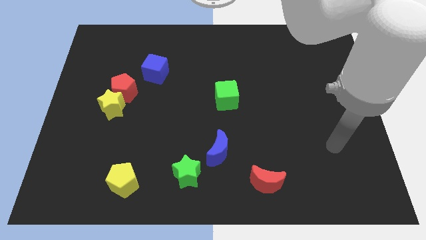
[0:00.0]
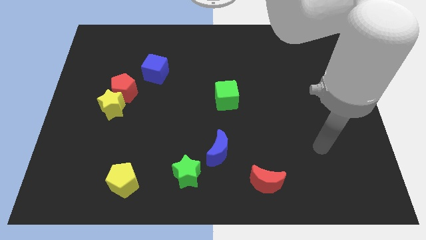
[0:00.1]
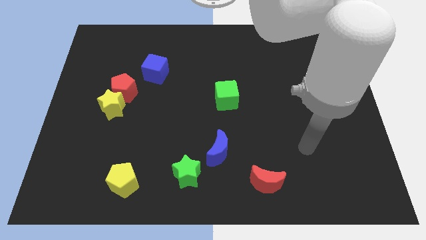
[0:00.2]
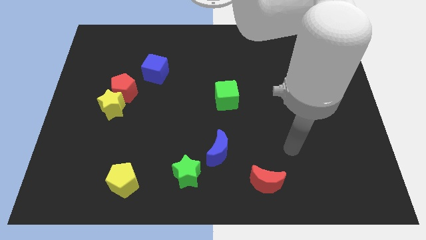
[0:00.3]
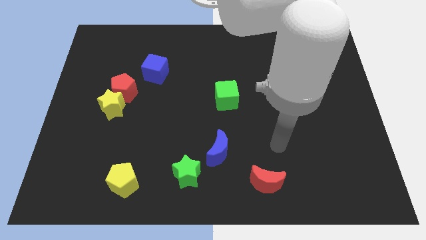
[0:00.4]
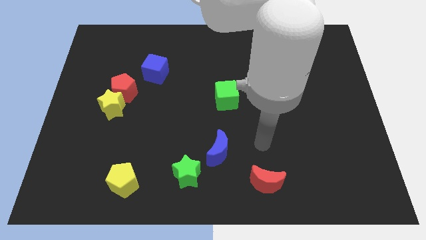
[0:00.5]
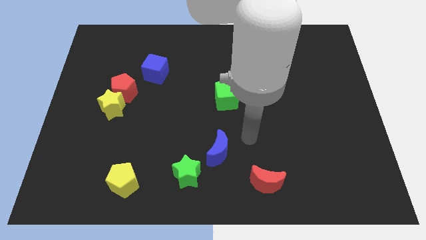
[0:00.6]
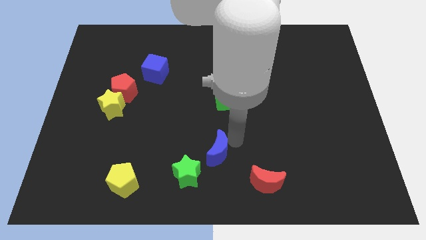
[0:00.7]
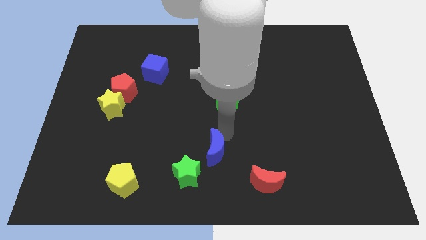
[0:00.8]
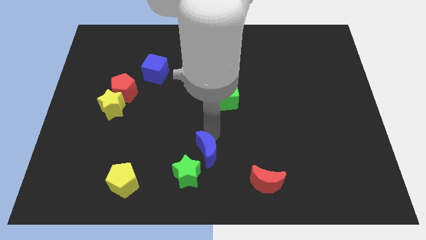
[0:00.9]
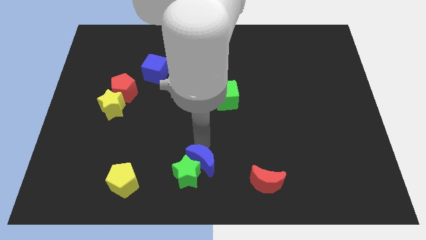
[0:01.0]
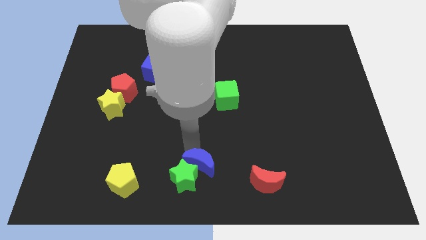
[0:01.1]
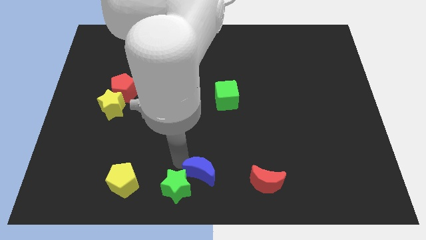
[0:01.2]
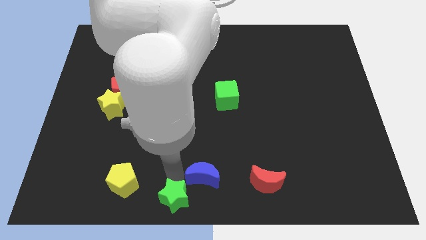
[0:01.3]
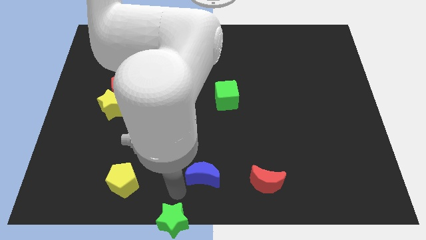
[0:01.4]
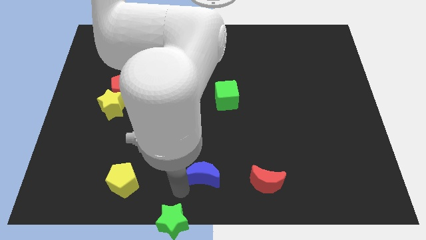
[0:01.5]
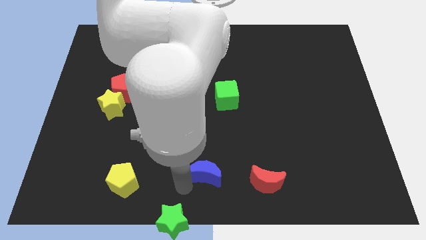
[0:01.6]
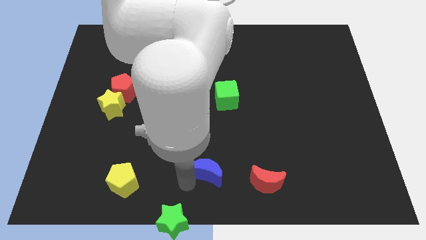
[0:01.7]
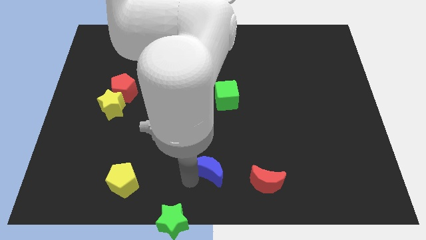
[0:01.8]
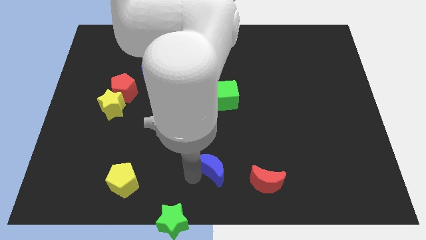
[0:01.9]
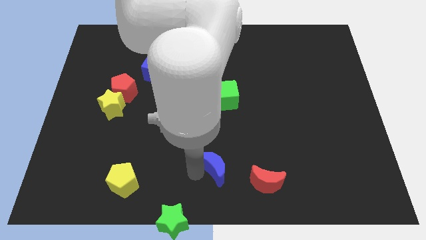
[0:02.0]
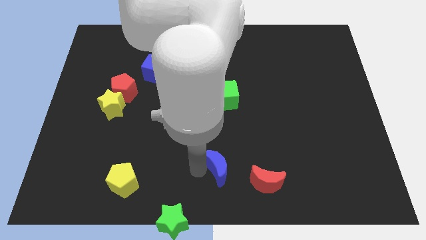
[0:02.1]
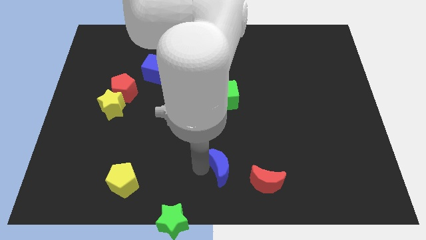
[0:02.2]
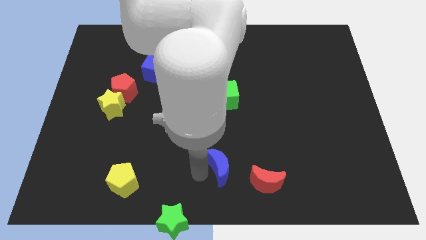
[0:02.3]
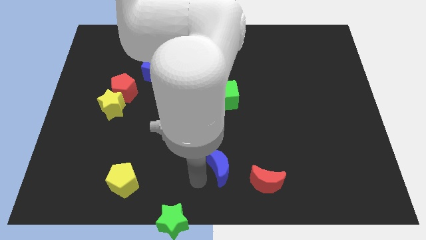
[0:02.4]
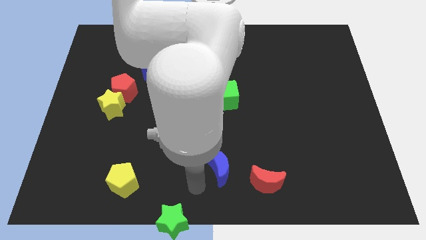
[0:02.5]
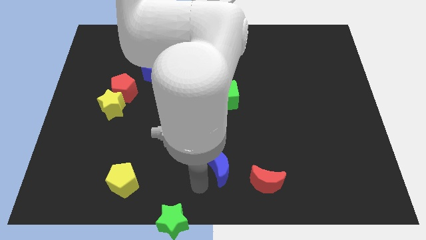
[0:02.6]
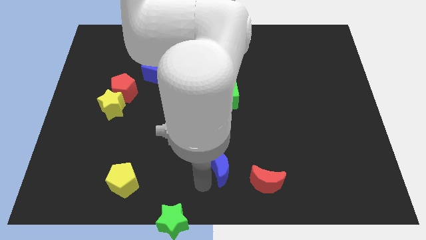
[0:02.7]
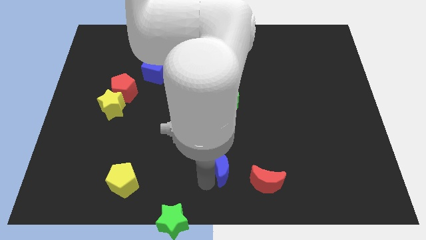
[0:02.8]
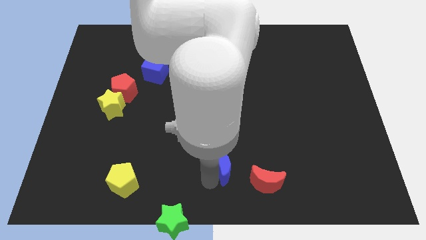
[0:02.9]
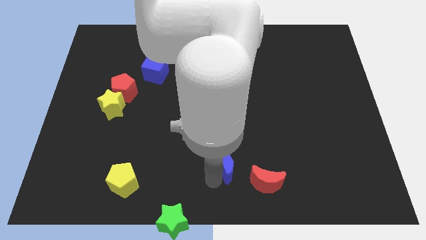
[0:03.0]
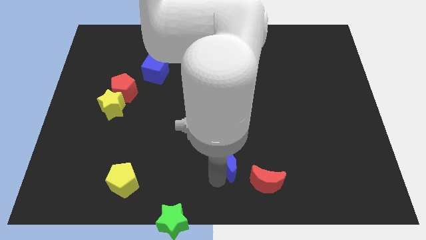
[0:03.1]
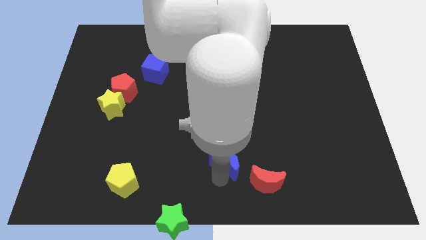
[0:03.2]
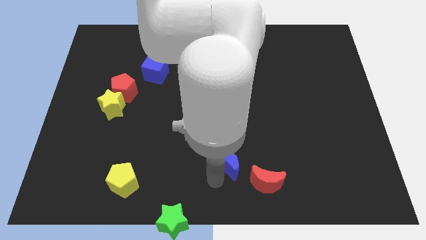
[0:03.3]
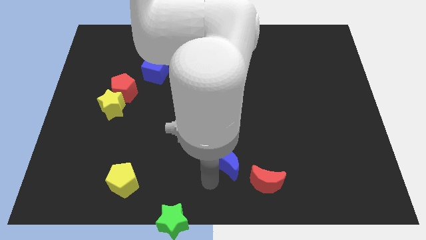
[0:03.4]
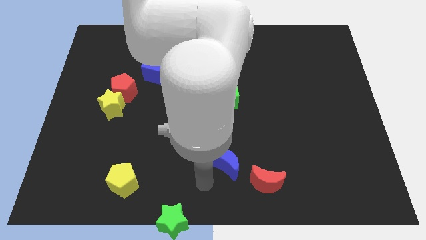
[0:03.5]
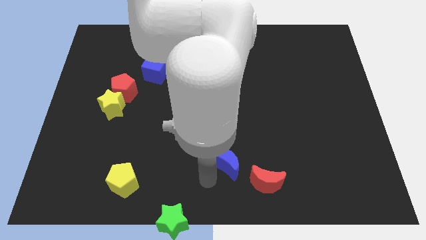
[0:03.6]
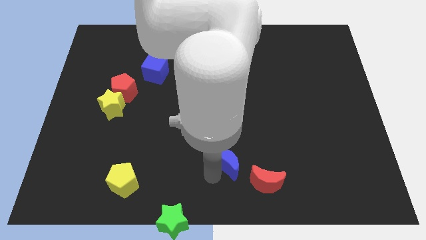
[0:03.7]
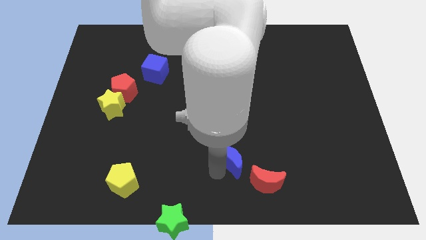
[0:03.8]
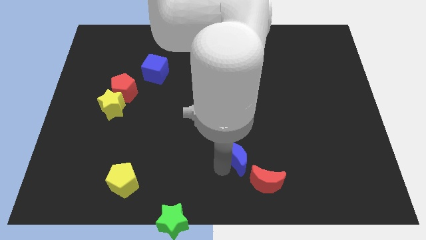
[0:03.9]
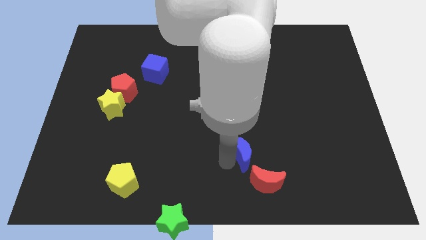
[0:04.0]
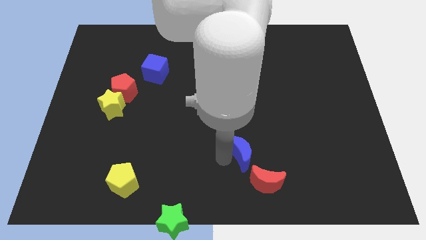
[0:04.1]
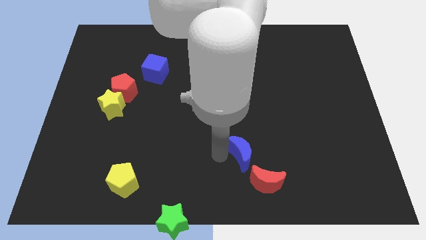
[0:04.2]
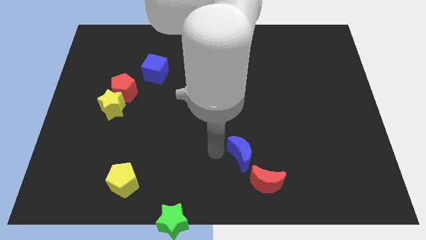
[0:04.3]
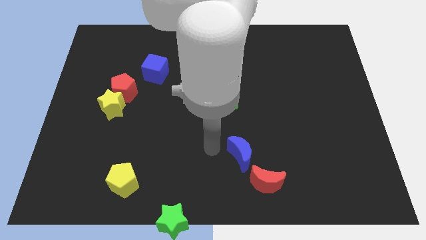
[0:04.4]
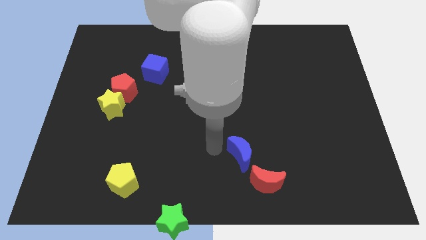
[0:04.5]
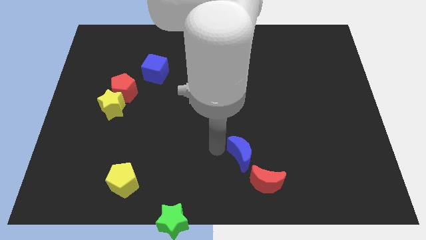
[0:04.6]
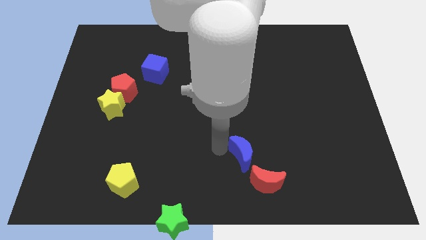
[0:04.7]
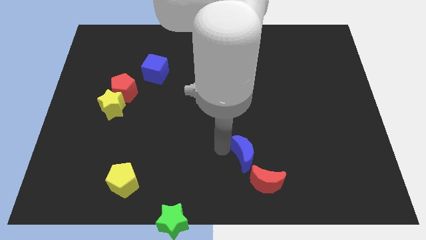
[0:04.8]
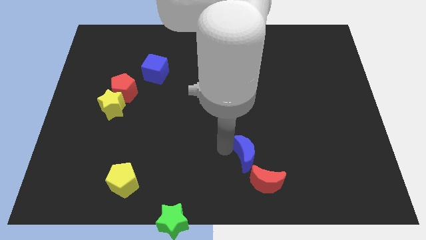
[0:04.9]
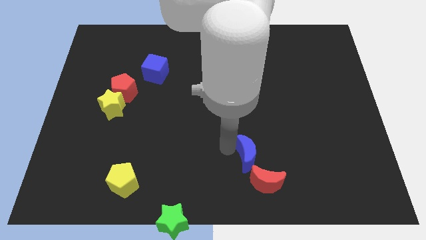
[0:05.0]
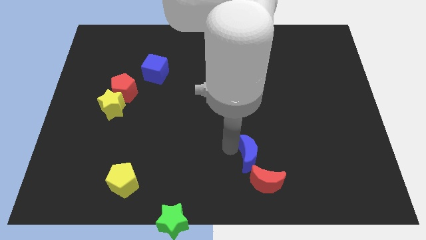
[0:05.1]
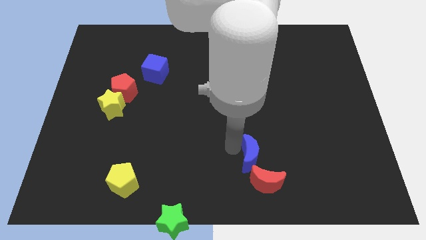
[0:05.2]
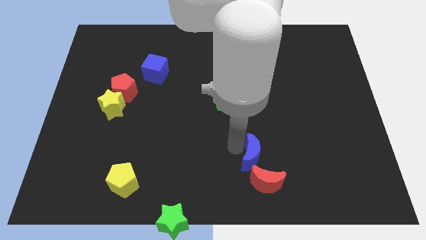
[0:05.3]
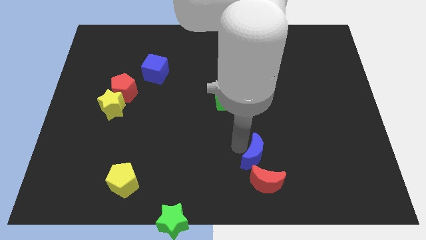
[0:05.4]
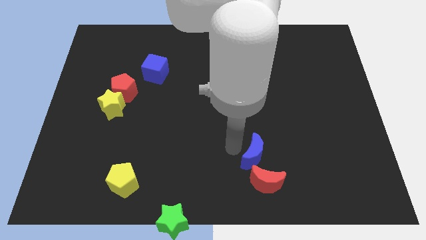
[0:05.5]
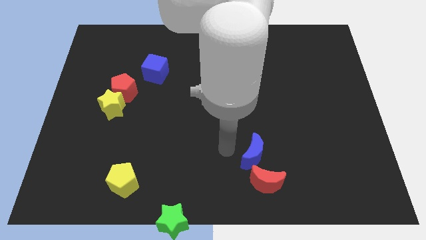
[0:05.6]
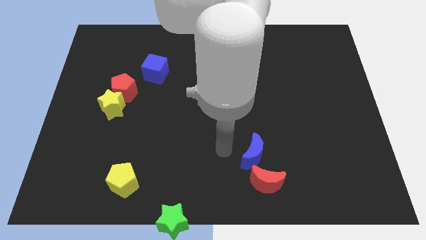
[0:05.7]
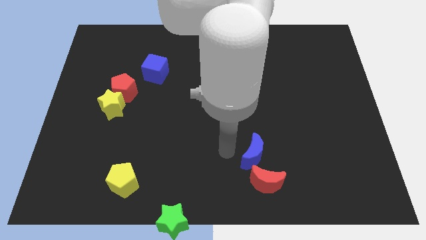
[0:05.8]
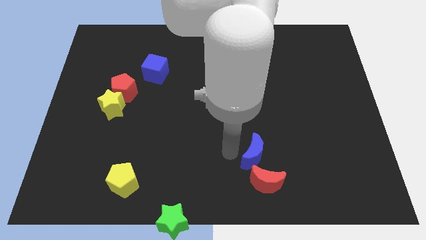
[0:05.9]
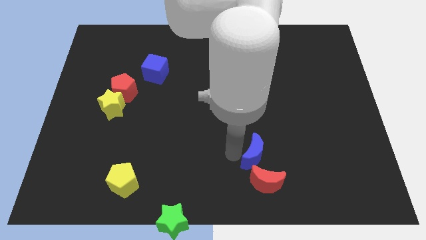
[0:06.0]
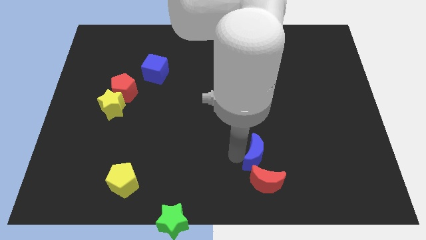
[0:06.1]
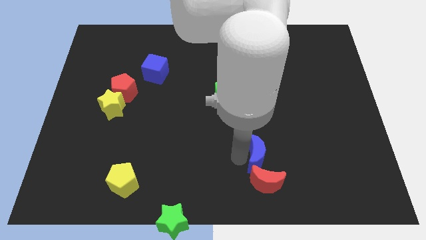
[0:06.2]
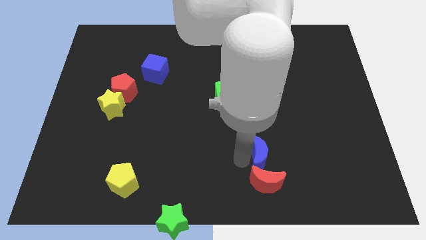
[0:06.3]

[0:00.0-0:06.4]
put the blue moon diagonally up and to the right of the red moon

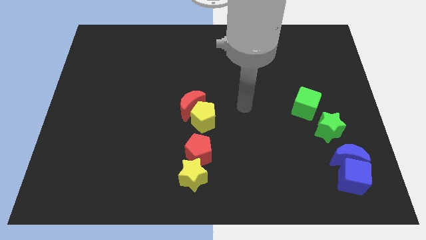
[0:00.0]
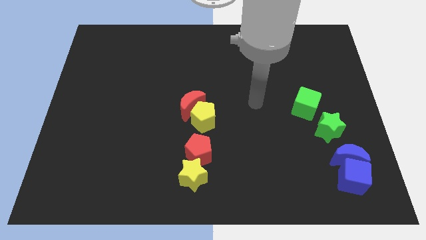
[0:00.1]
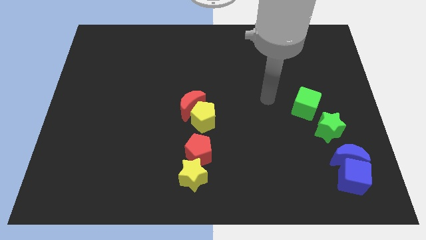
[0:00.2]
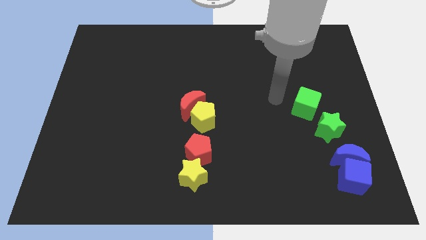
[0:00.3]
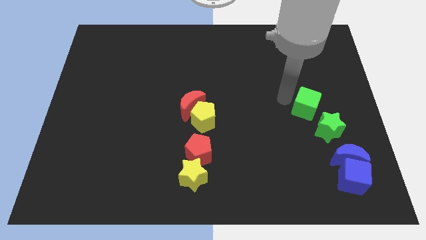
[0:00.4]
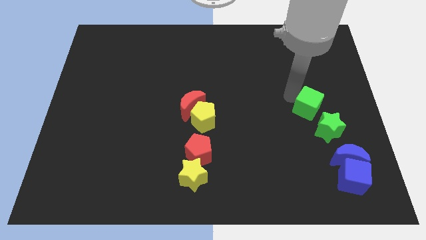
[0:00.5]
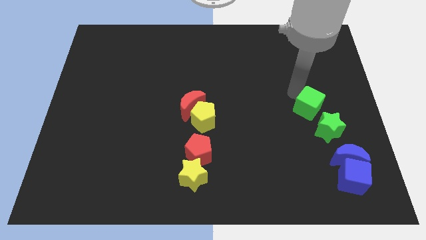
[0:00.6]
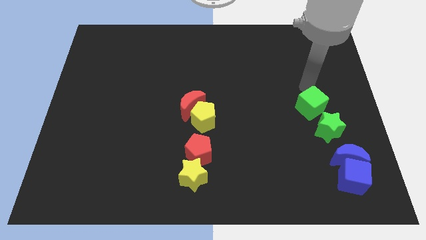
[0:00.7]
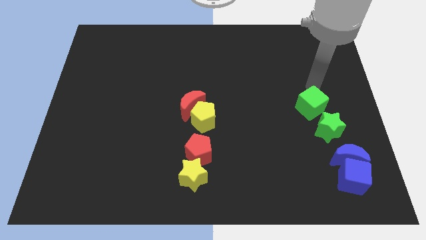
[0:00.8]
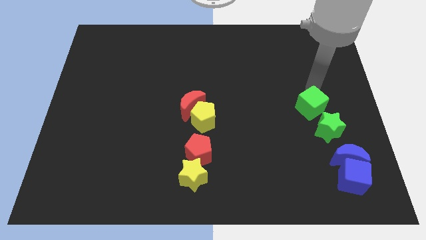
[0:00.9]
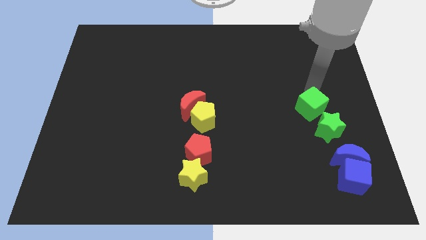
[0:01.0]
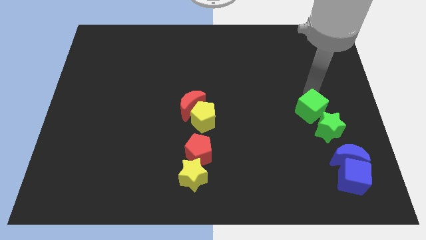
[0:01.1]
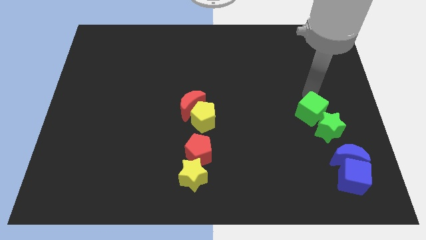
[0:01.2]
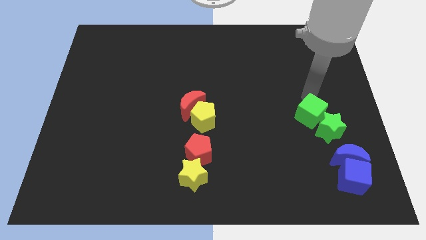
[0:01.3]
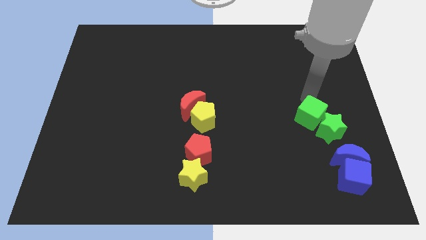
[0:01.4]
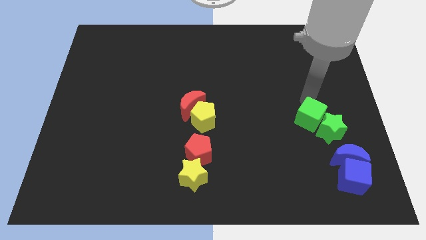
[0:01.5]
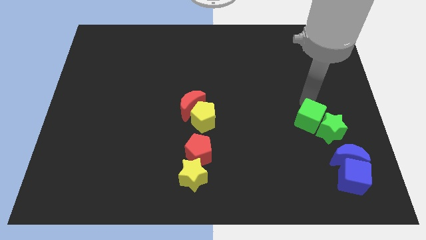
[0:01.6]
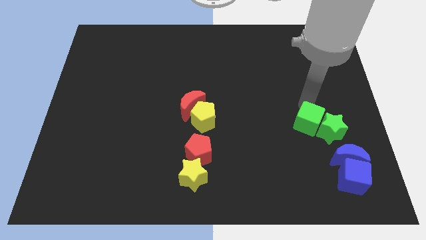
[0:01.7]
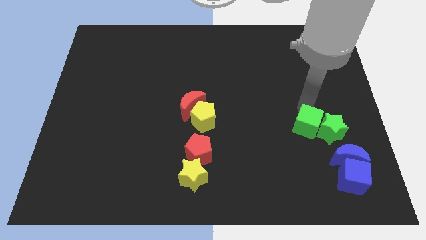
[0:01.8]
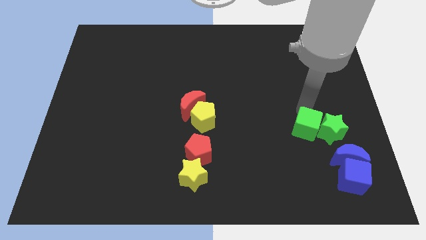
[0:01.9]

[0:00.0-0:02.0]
put the green cube diagonally down and to the left of the green star
